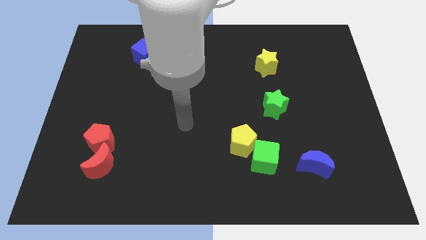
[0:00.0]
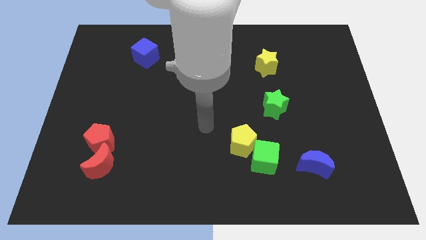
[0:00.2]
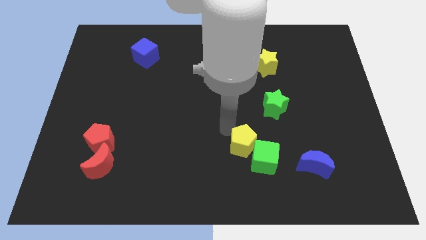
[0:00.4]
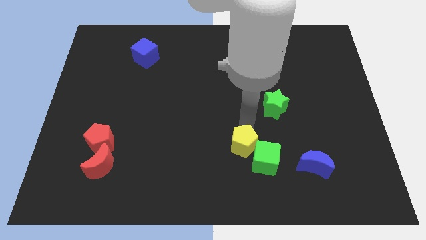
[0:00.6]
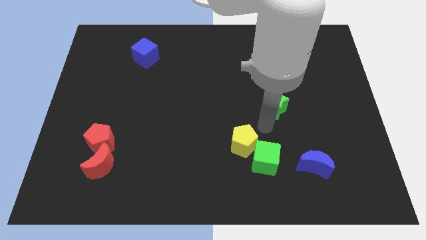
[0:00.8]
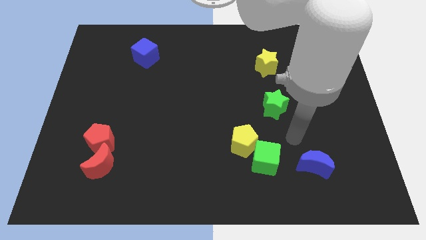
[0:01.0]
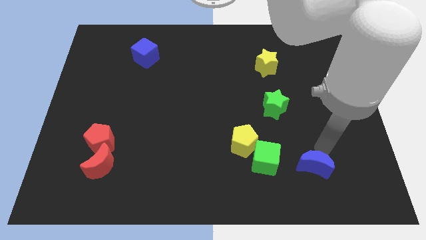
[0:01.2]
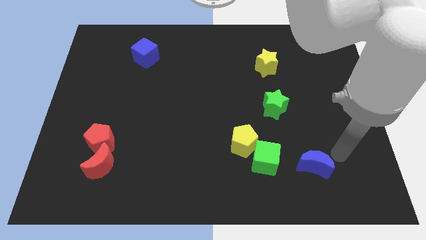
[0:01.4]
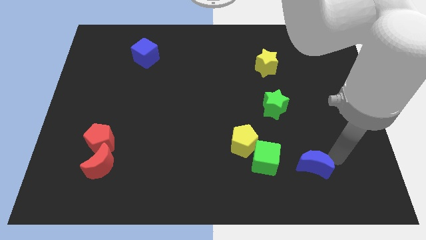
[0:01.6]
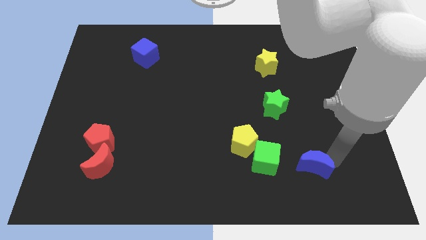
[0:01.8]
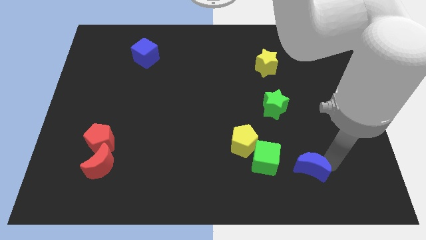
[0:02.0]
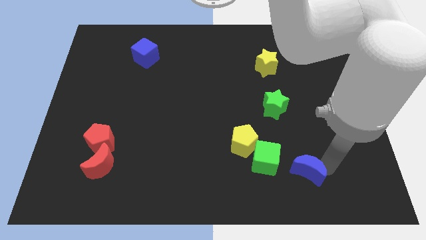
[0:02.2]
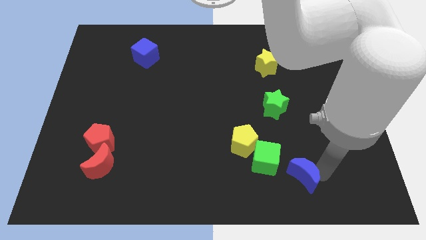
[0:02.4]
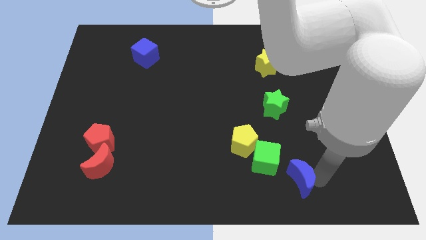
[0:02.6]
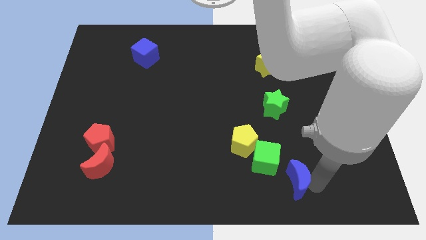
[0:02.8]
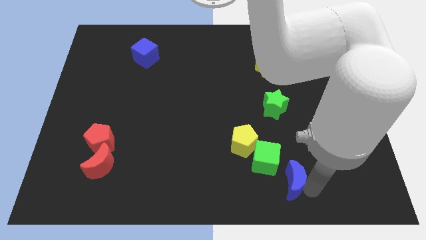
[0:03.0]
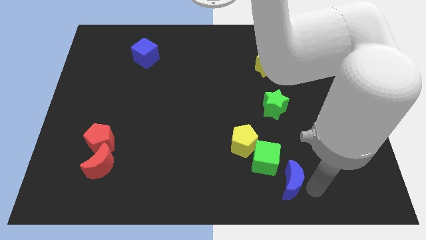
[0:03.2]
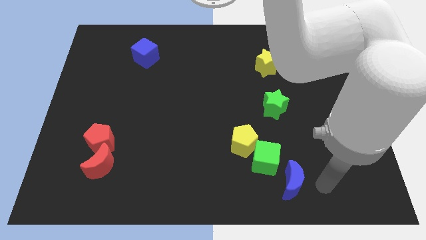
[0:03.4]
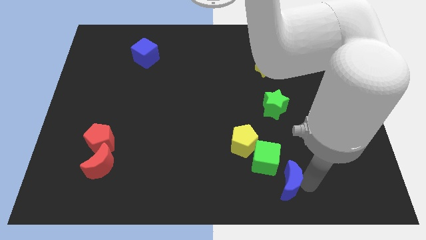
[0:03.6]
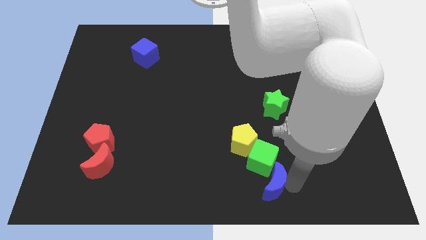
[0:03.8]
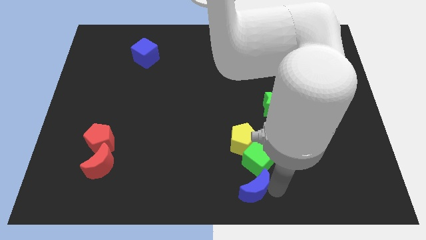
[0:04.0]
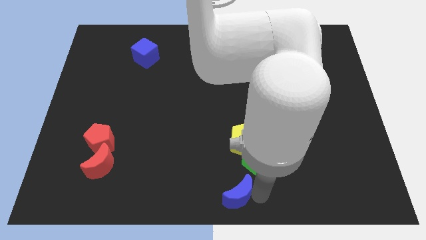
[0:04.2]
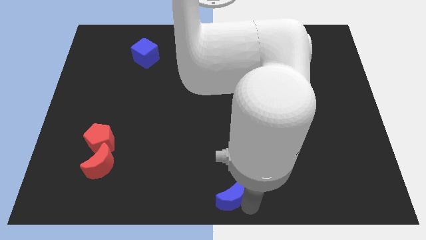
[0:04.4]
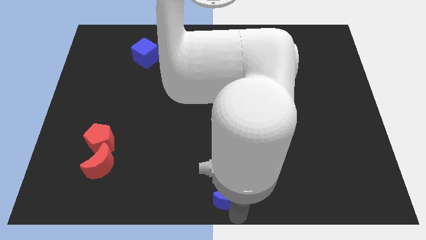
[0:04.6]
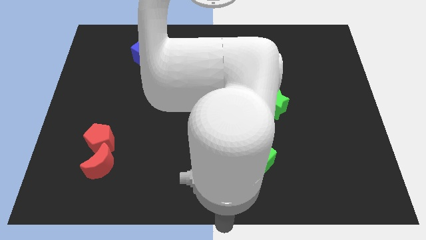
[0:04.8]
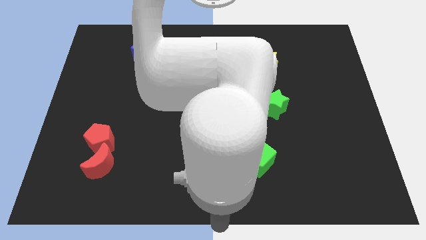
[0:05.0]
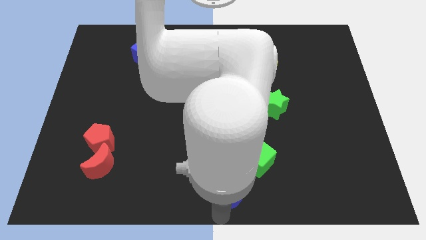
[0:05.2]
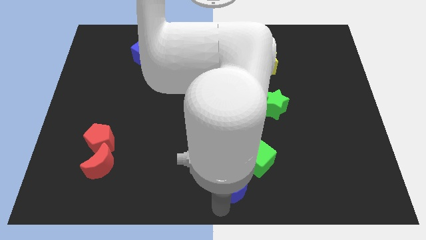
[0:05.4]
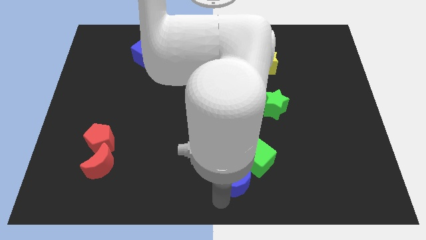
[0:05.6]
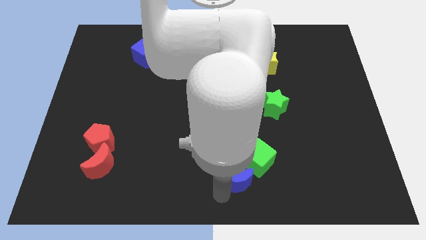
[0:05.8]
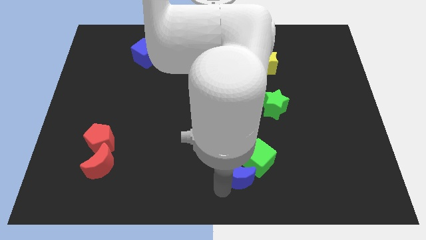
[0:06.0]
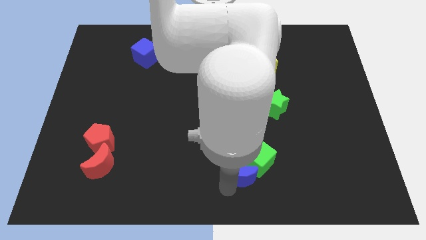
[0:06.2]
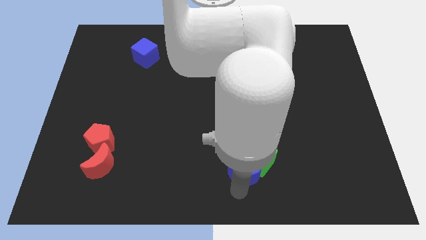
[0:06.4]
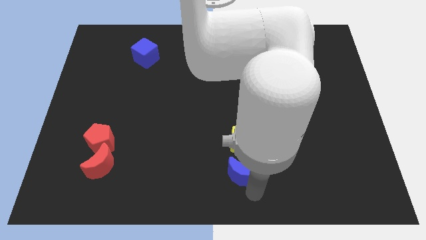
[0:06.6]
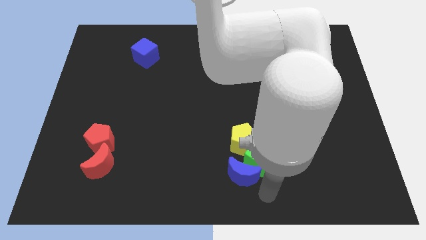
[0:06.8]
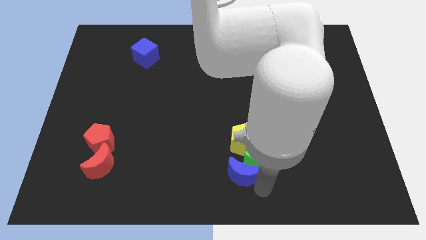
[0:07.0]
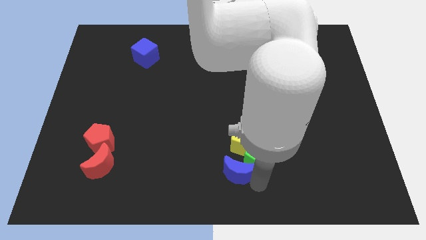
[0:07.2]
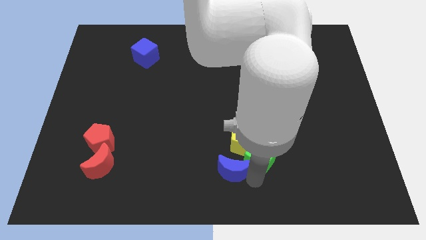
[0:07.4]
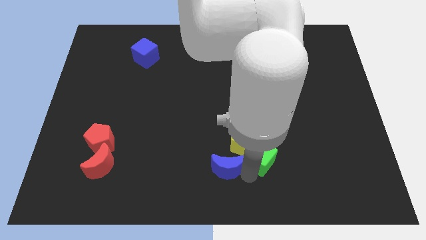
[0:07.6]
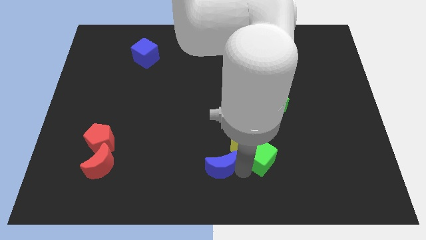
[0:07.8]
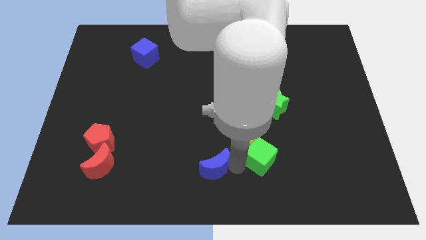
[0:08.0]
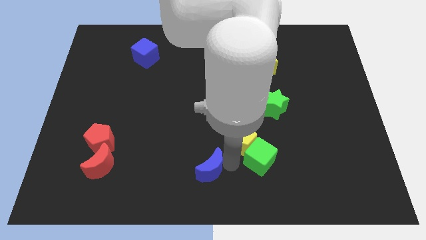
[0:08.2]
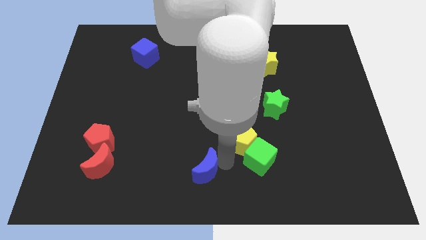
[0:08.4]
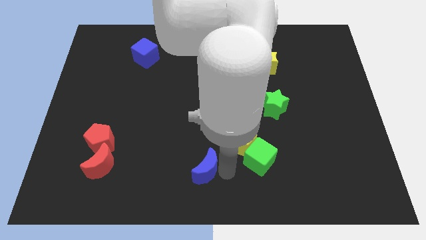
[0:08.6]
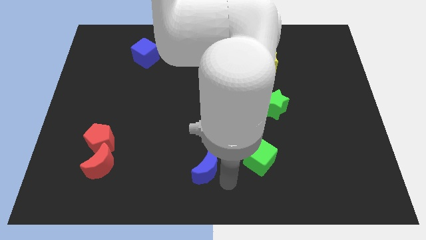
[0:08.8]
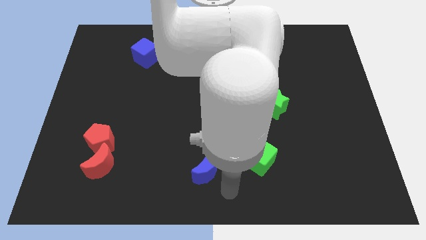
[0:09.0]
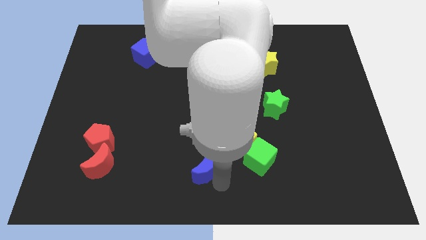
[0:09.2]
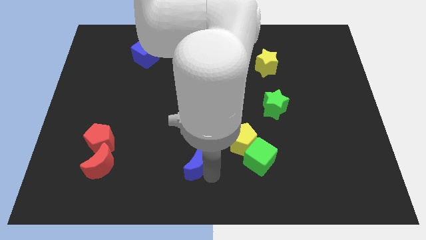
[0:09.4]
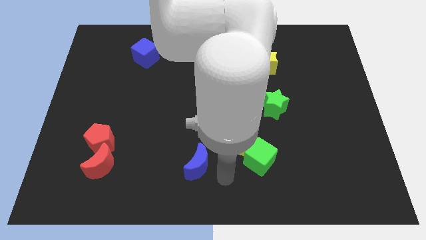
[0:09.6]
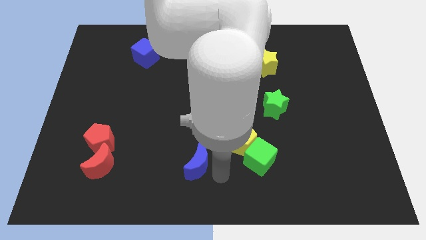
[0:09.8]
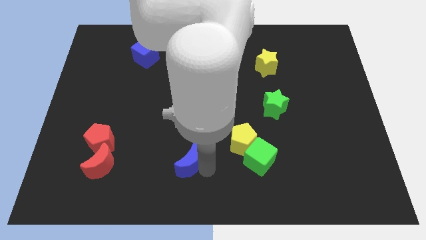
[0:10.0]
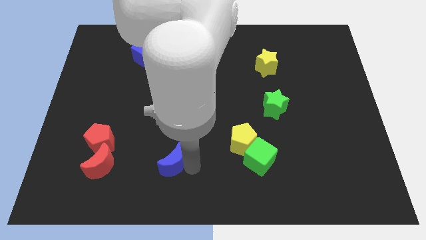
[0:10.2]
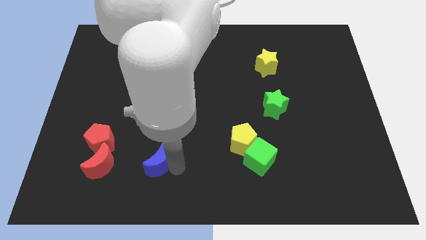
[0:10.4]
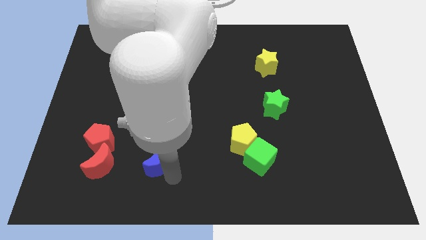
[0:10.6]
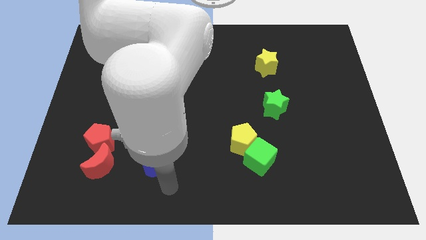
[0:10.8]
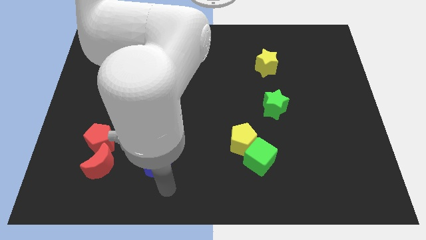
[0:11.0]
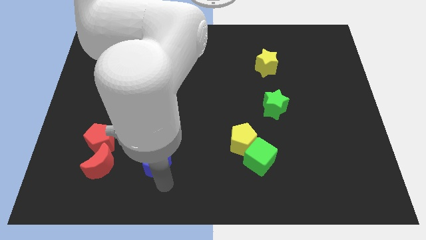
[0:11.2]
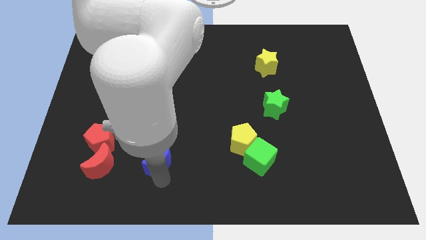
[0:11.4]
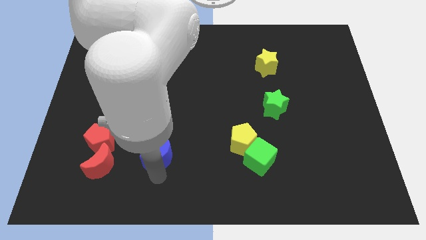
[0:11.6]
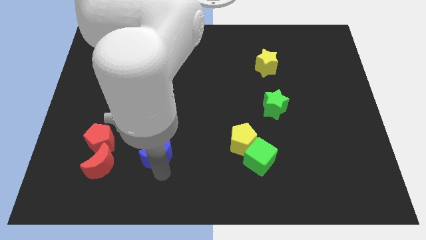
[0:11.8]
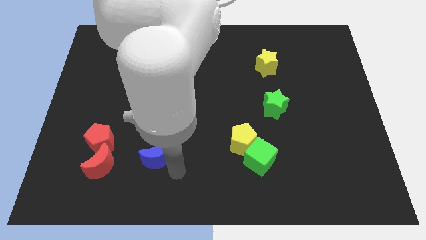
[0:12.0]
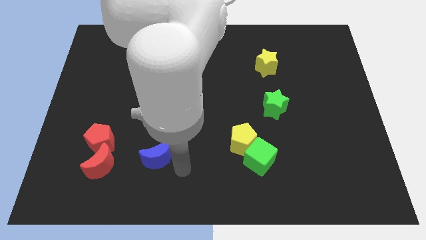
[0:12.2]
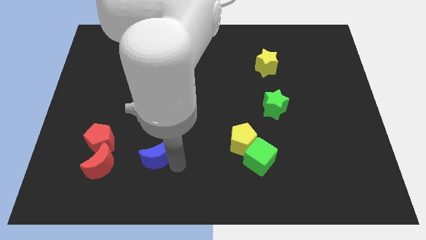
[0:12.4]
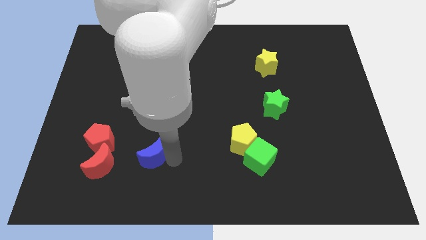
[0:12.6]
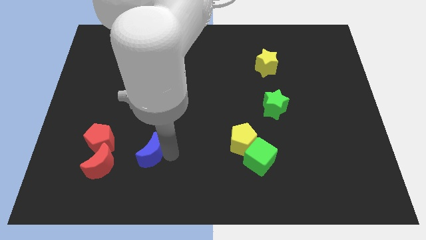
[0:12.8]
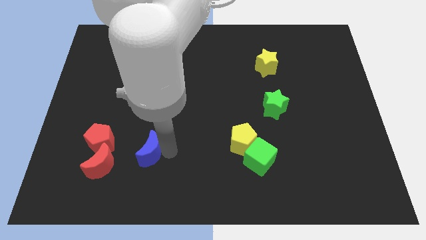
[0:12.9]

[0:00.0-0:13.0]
slide the blue moon to the top right side of the red moon

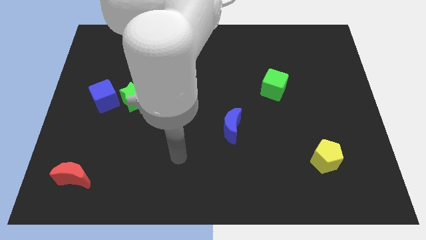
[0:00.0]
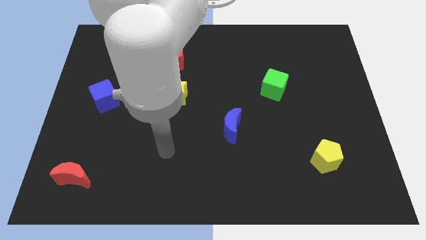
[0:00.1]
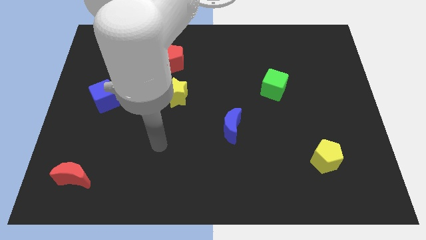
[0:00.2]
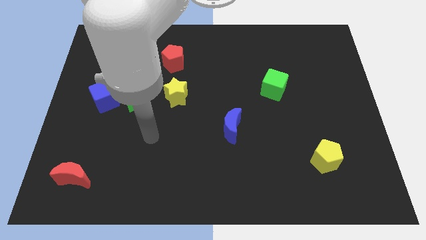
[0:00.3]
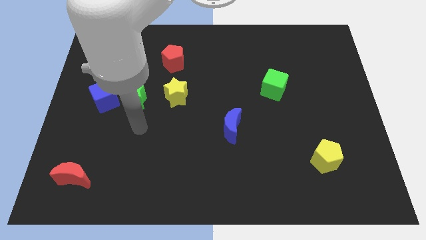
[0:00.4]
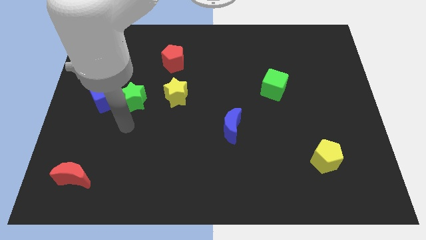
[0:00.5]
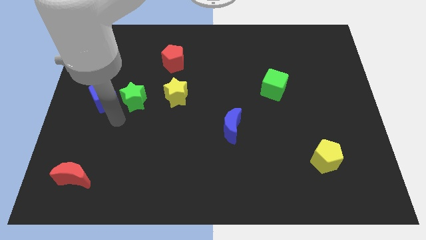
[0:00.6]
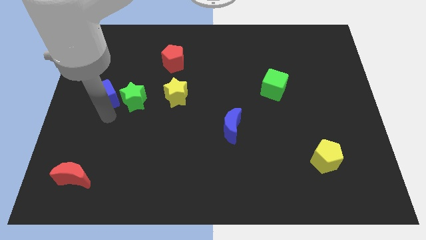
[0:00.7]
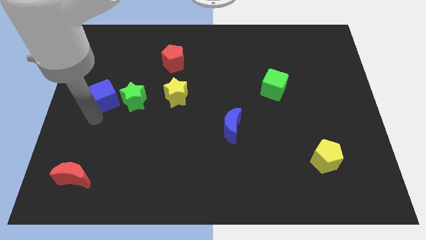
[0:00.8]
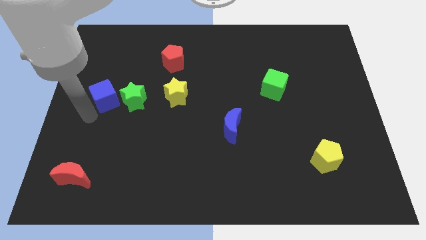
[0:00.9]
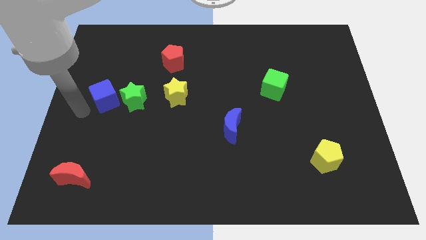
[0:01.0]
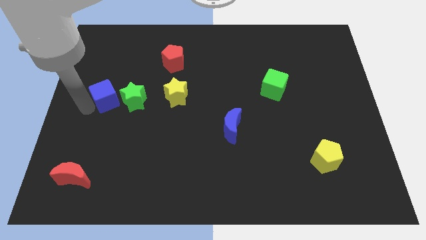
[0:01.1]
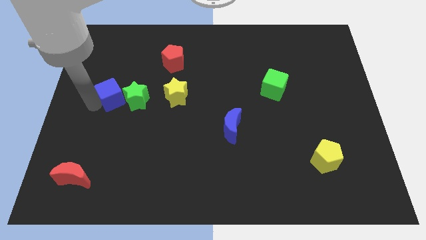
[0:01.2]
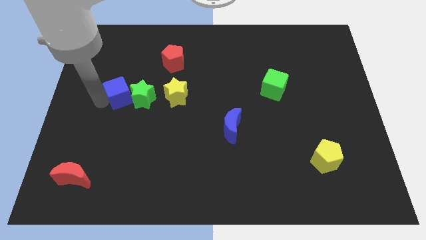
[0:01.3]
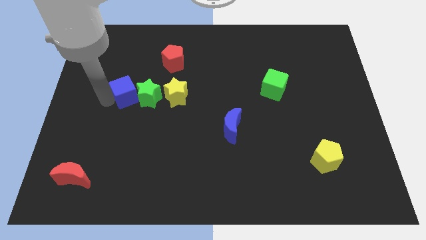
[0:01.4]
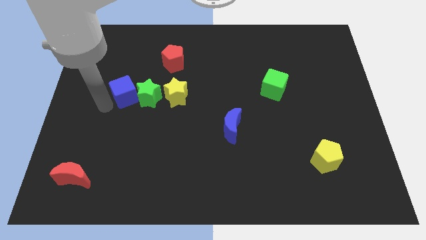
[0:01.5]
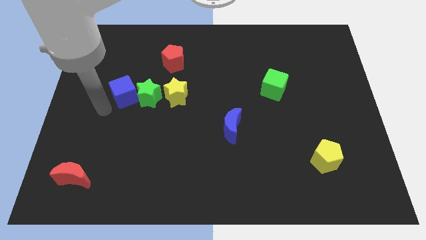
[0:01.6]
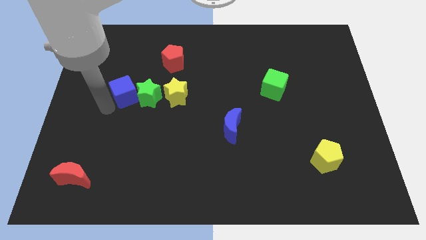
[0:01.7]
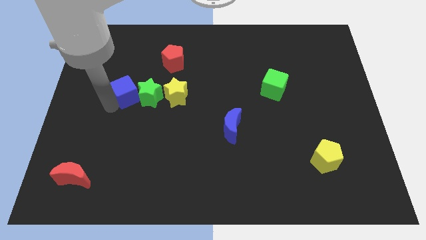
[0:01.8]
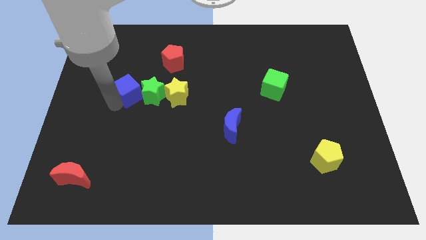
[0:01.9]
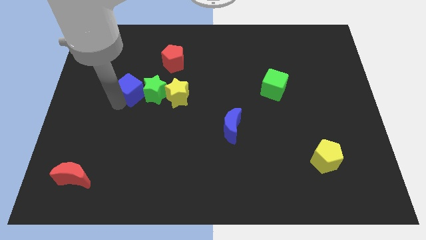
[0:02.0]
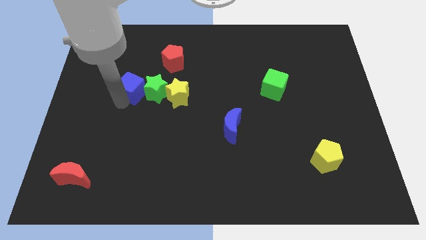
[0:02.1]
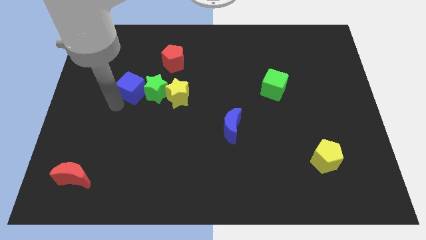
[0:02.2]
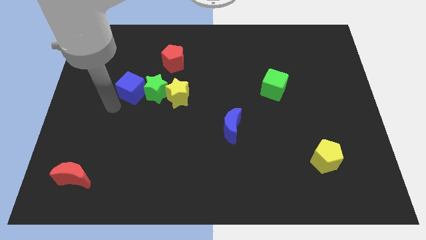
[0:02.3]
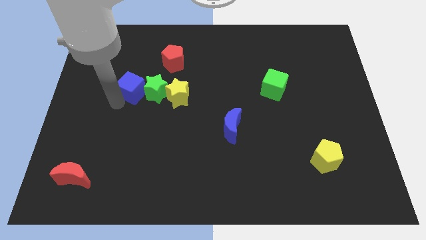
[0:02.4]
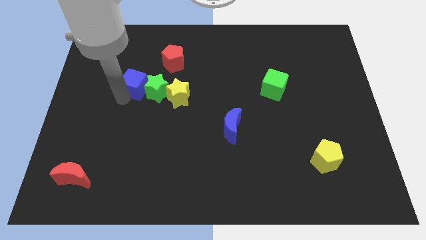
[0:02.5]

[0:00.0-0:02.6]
put the blue cube to the bottom left of the red pentagon
